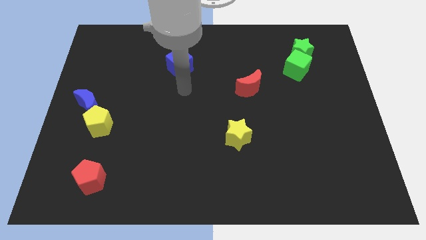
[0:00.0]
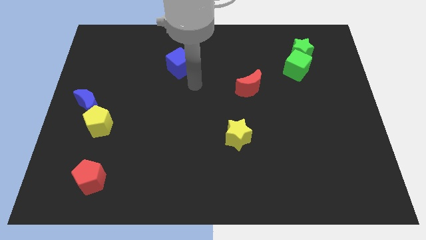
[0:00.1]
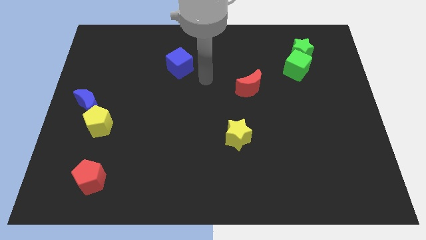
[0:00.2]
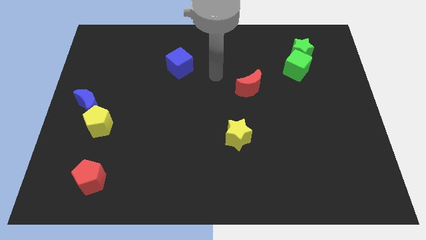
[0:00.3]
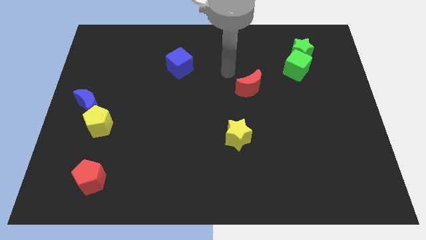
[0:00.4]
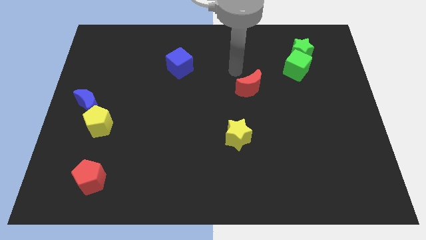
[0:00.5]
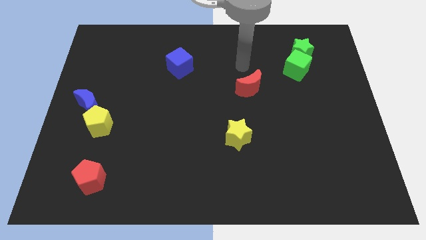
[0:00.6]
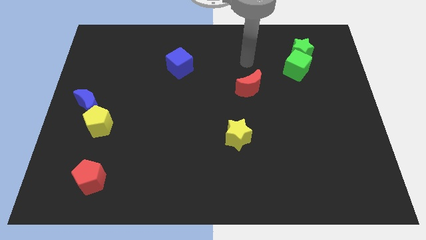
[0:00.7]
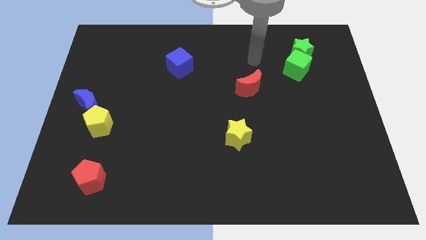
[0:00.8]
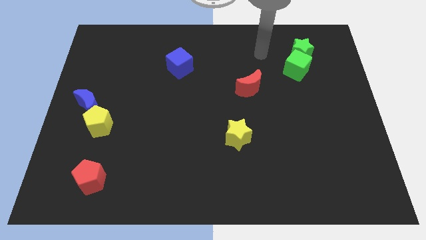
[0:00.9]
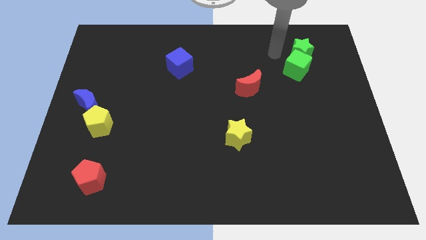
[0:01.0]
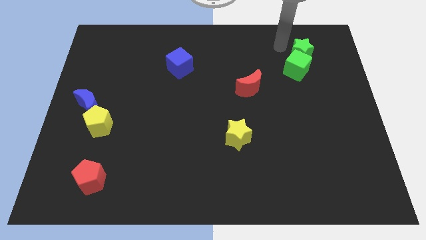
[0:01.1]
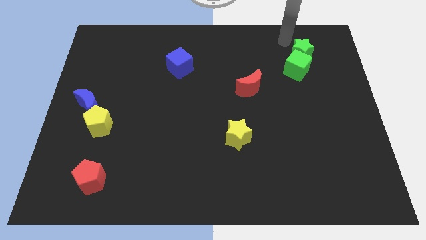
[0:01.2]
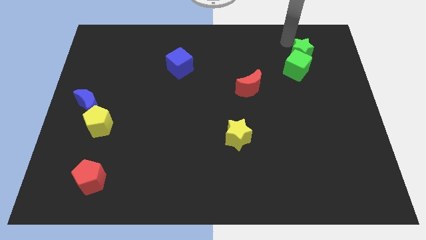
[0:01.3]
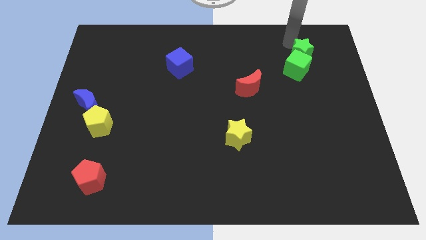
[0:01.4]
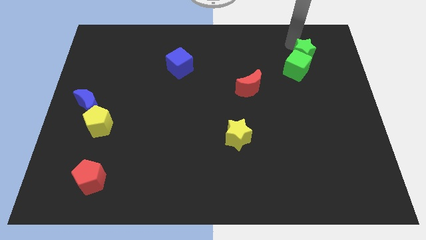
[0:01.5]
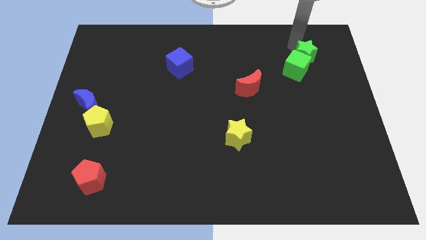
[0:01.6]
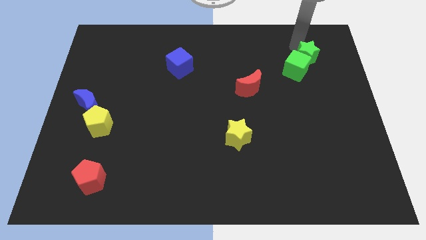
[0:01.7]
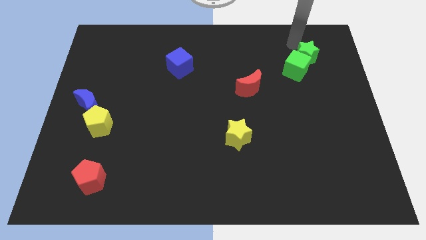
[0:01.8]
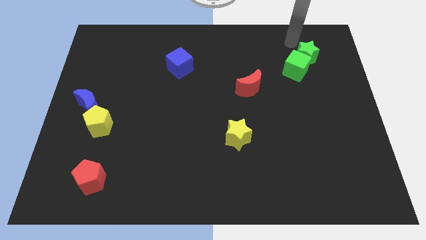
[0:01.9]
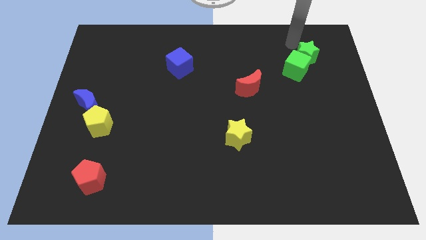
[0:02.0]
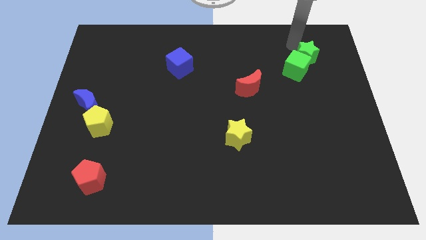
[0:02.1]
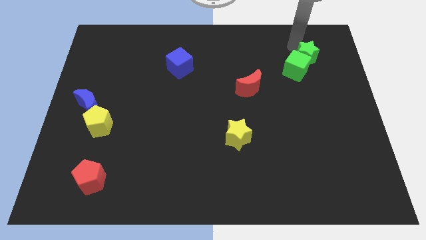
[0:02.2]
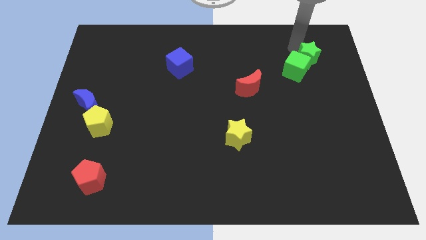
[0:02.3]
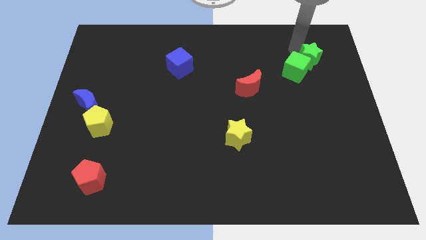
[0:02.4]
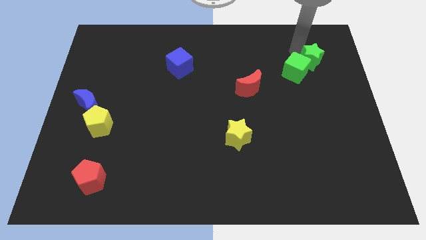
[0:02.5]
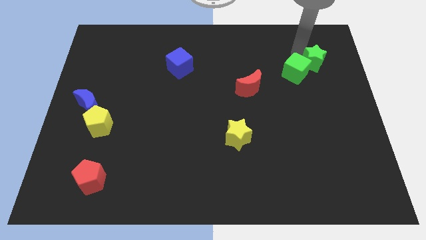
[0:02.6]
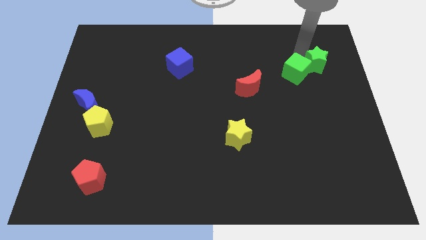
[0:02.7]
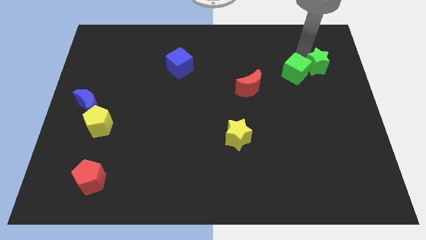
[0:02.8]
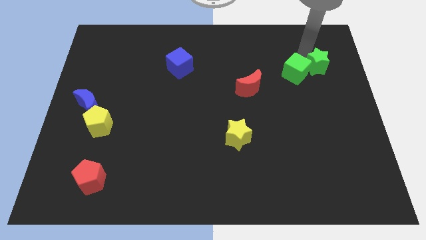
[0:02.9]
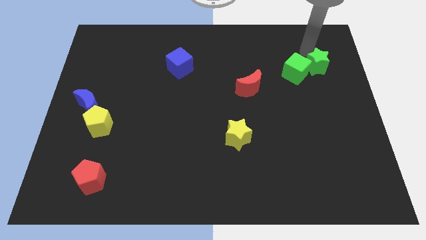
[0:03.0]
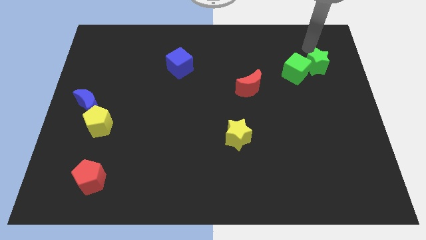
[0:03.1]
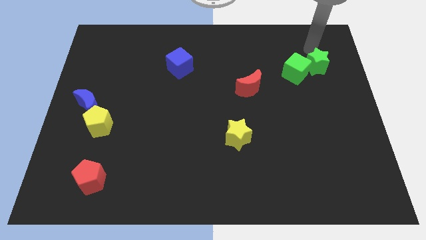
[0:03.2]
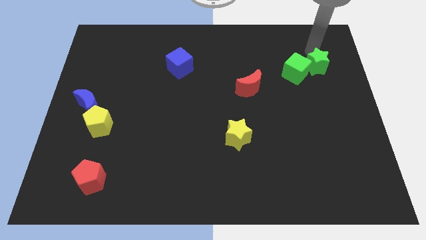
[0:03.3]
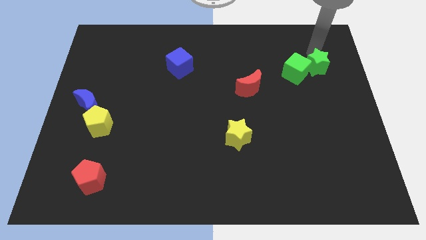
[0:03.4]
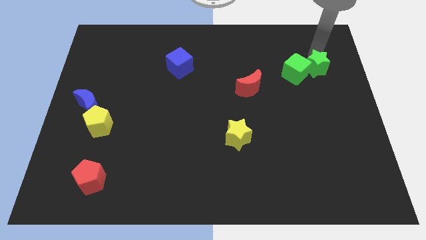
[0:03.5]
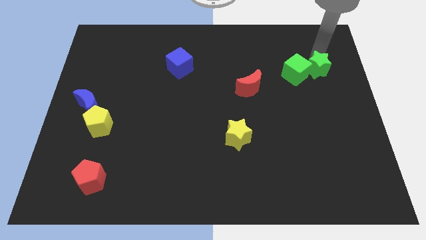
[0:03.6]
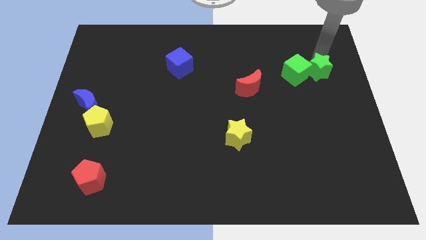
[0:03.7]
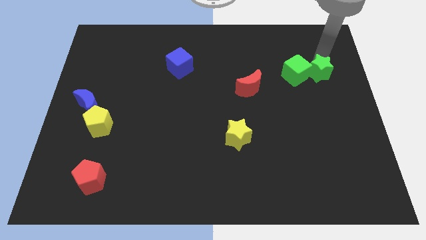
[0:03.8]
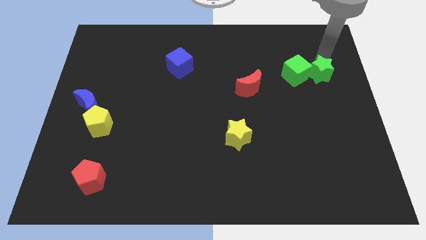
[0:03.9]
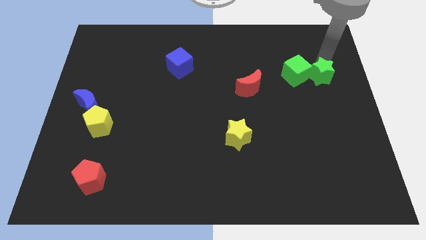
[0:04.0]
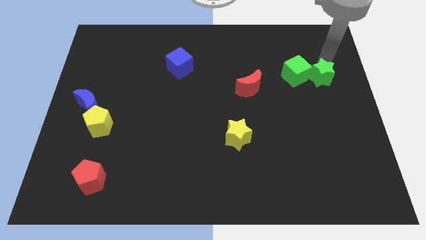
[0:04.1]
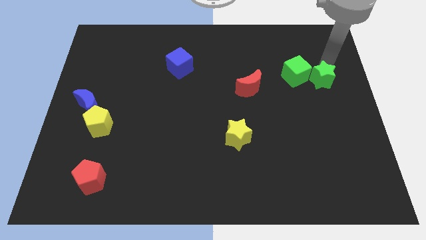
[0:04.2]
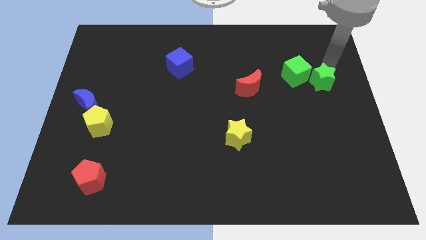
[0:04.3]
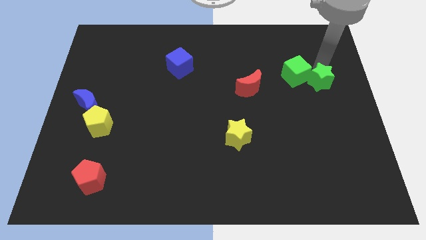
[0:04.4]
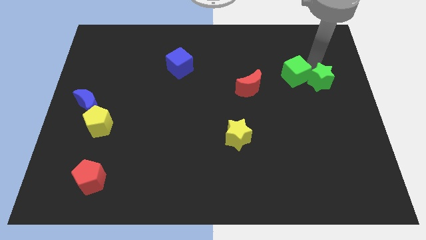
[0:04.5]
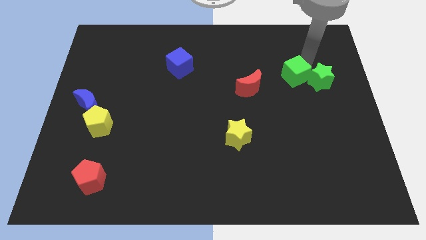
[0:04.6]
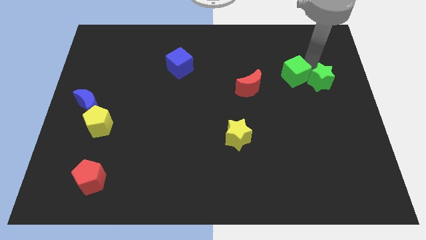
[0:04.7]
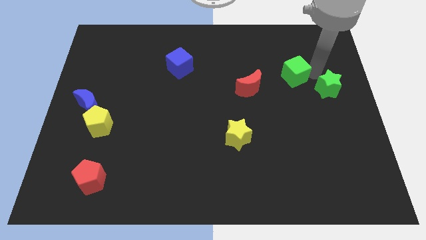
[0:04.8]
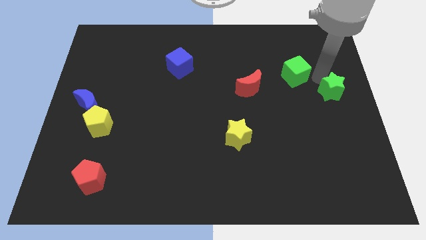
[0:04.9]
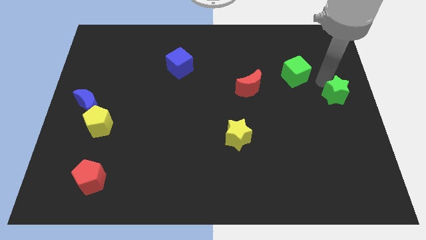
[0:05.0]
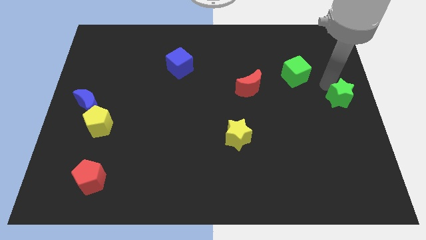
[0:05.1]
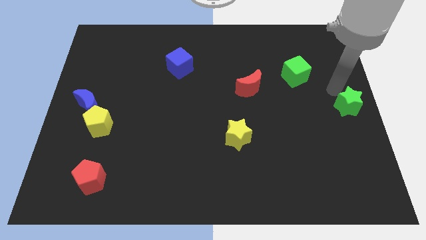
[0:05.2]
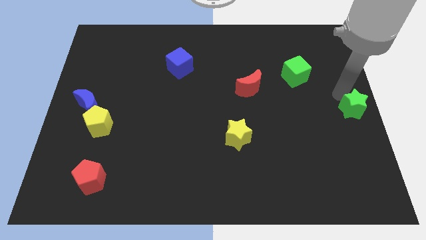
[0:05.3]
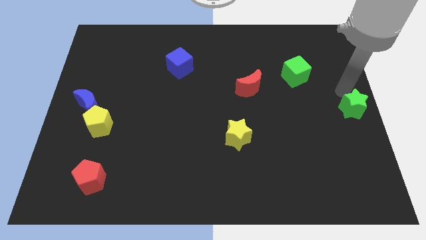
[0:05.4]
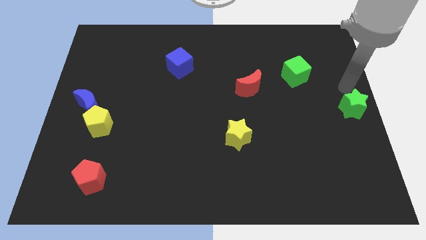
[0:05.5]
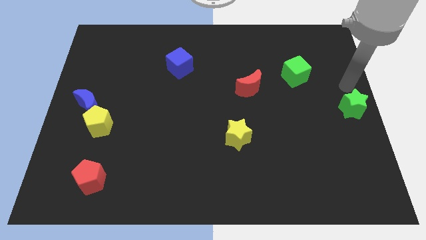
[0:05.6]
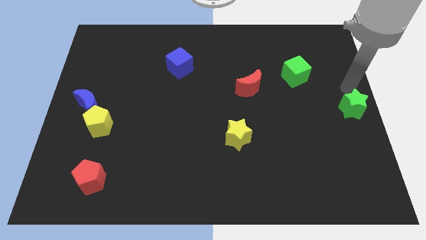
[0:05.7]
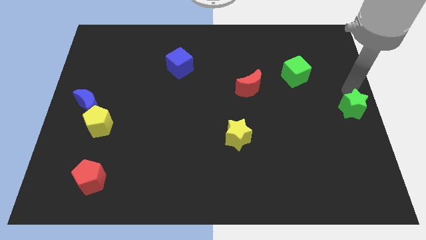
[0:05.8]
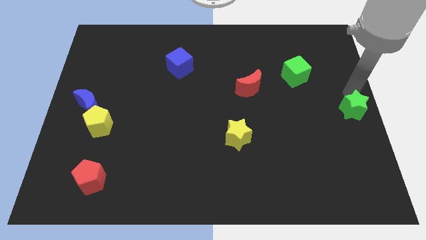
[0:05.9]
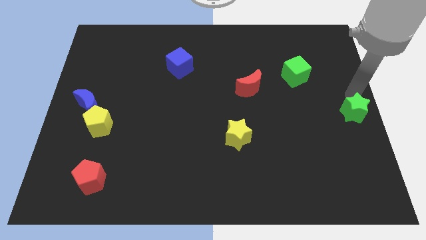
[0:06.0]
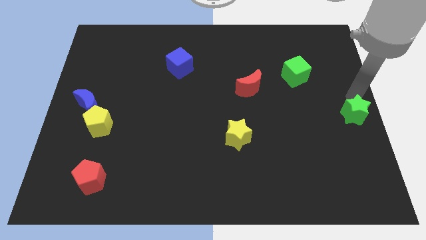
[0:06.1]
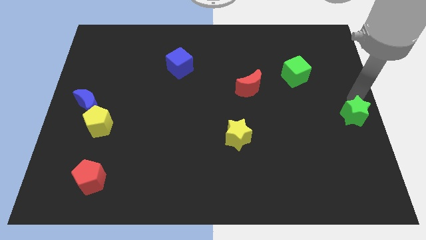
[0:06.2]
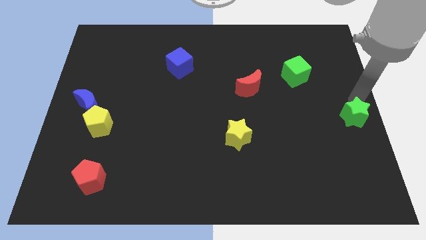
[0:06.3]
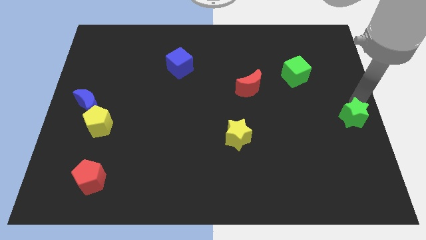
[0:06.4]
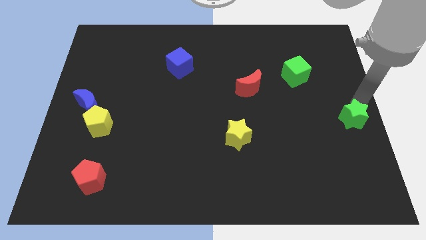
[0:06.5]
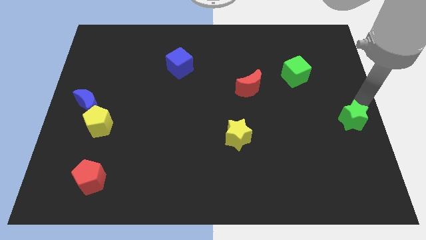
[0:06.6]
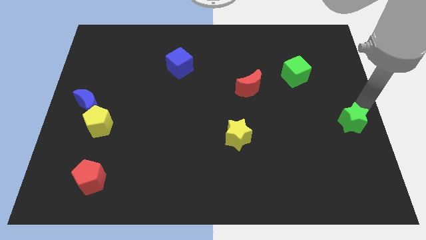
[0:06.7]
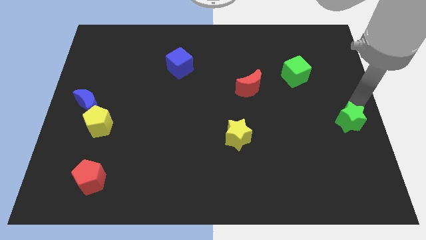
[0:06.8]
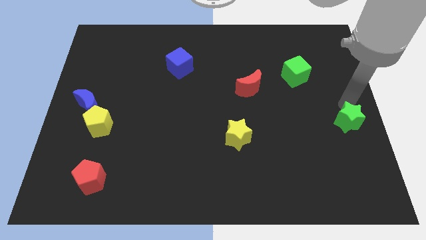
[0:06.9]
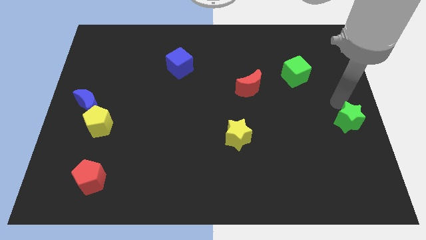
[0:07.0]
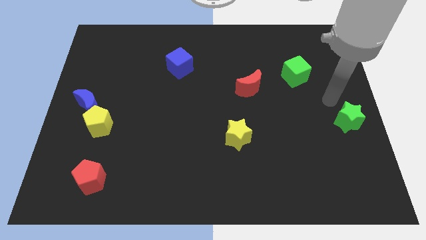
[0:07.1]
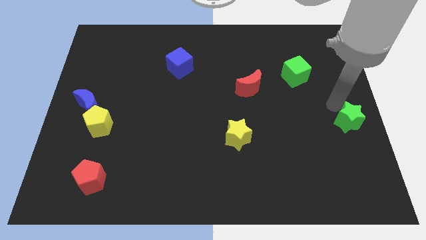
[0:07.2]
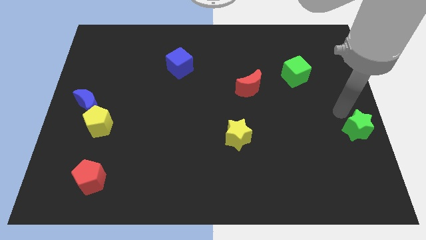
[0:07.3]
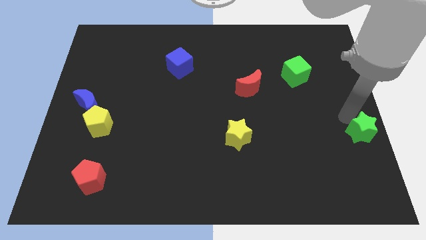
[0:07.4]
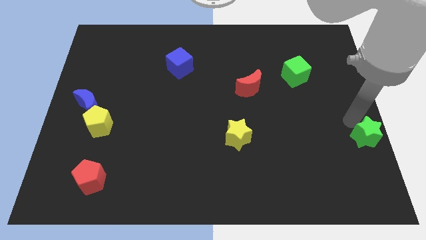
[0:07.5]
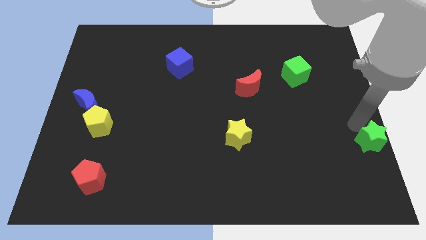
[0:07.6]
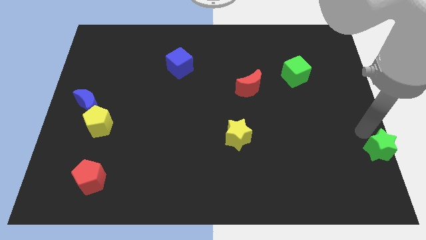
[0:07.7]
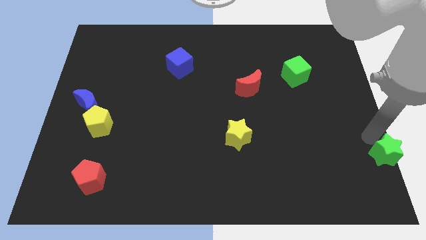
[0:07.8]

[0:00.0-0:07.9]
slide the green star to the lower right corner
